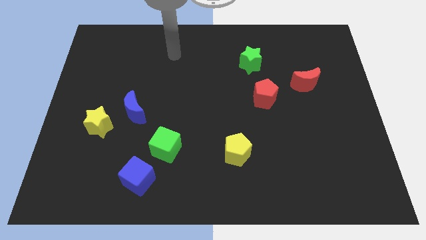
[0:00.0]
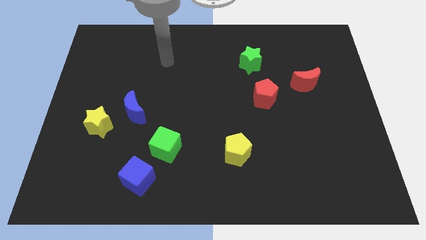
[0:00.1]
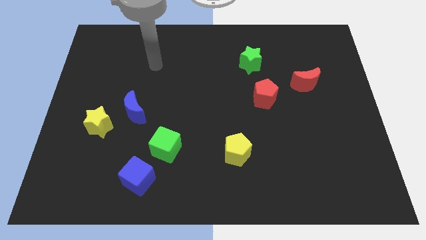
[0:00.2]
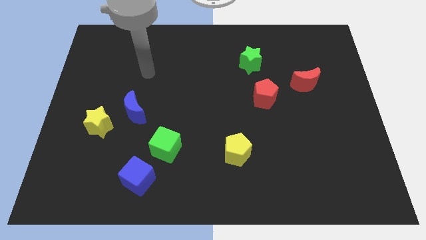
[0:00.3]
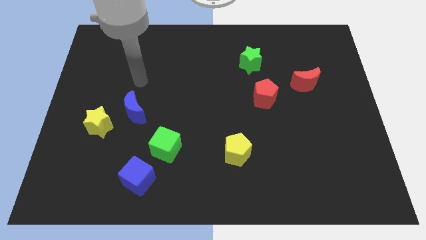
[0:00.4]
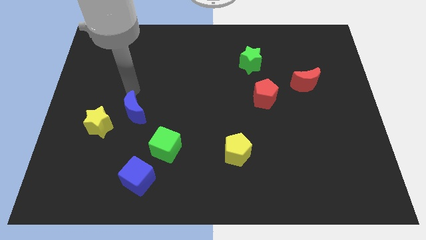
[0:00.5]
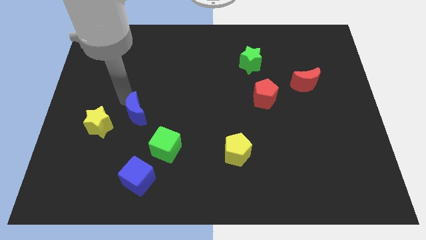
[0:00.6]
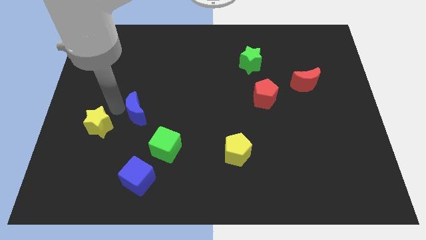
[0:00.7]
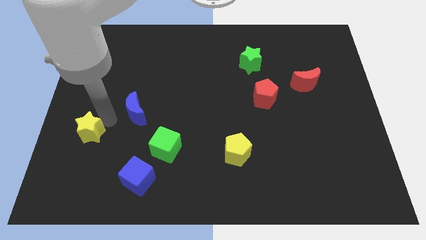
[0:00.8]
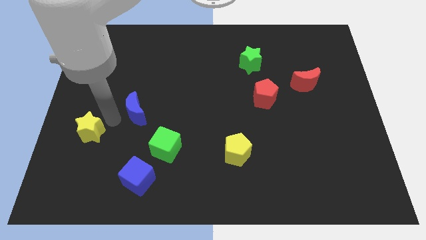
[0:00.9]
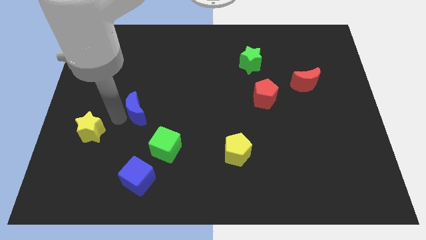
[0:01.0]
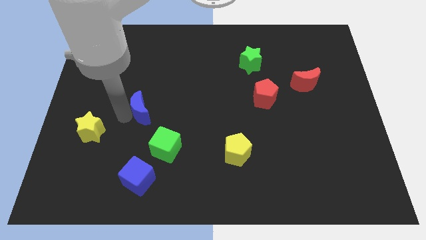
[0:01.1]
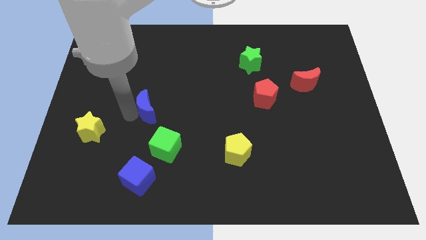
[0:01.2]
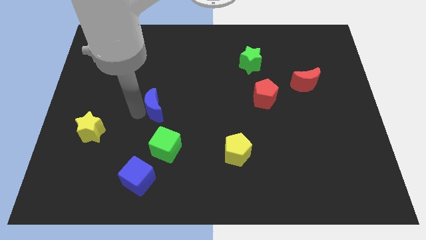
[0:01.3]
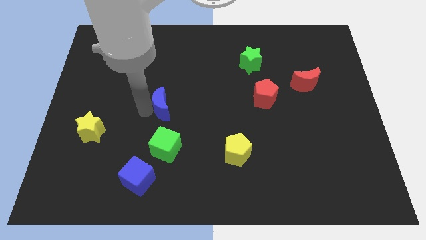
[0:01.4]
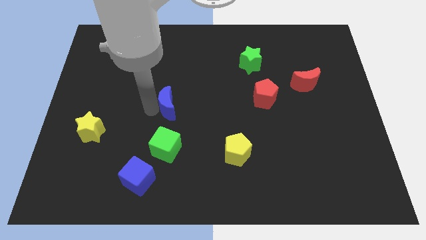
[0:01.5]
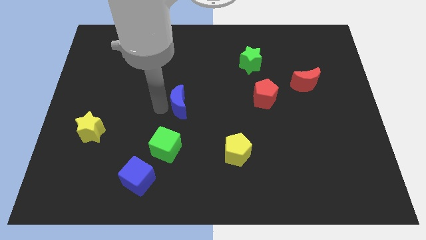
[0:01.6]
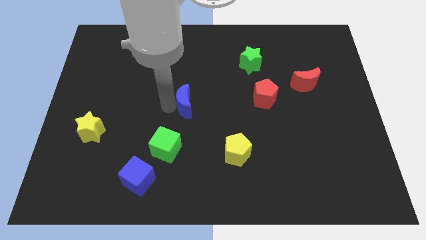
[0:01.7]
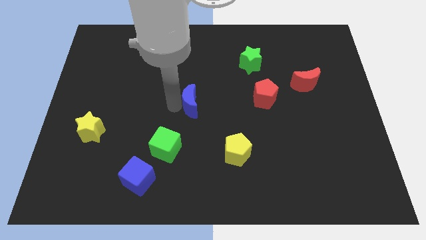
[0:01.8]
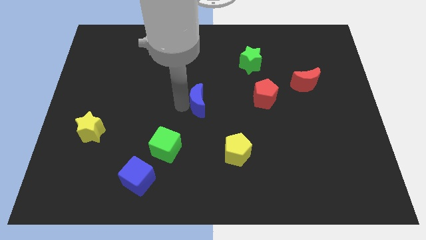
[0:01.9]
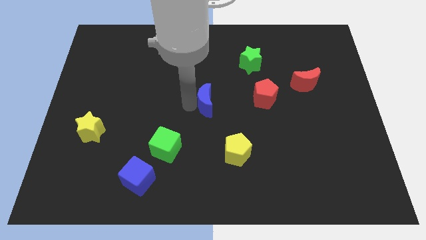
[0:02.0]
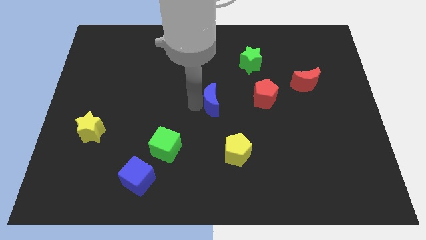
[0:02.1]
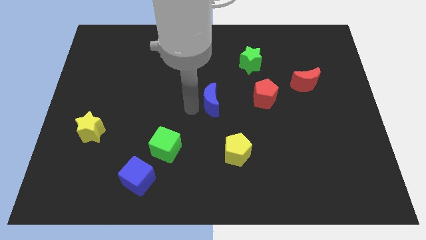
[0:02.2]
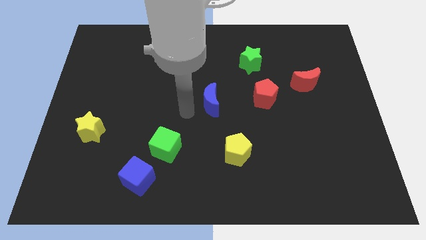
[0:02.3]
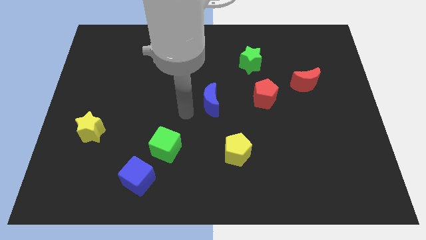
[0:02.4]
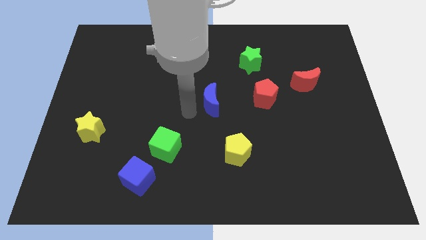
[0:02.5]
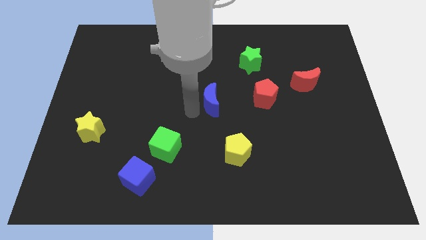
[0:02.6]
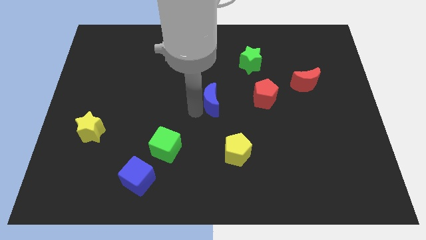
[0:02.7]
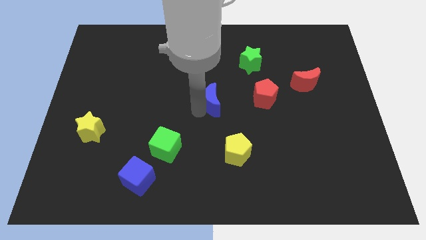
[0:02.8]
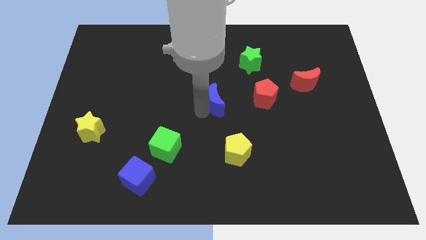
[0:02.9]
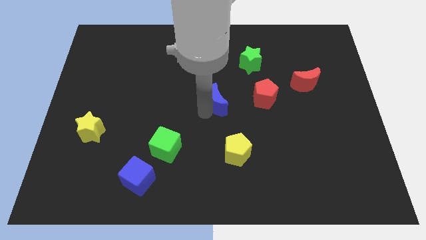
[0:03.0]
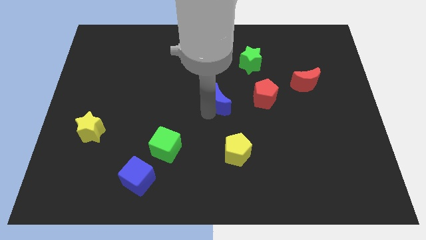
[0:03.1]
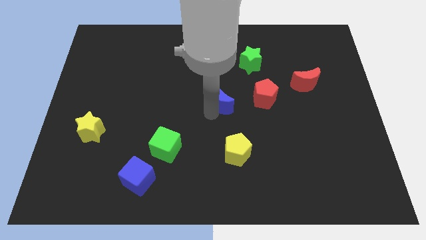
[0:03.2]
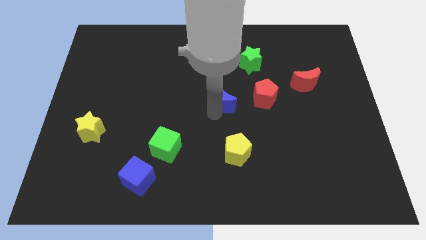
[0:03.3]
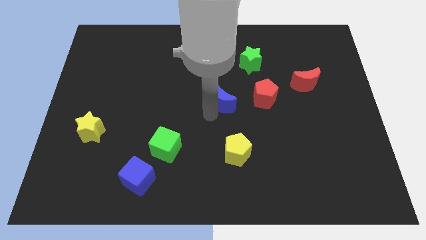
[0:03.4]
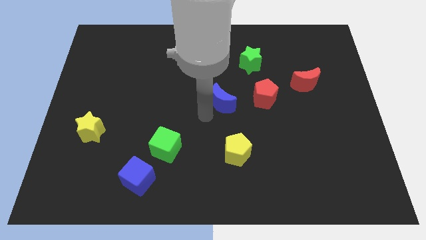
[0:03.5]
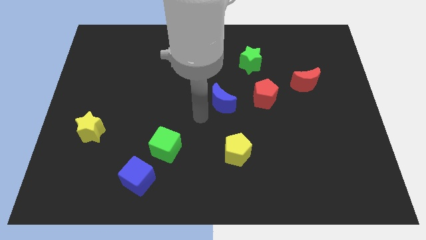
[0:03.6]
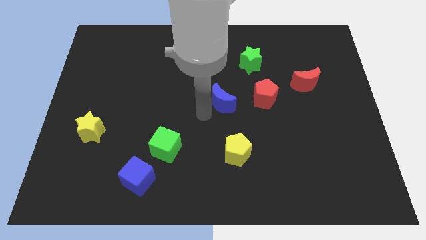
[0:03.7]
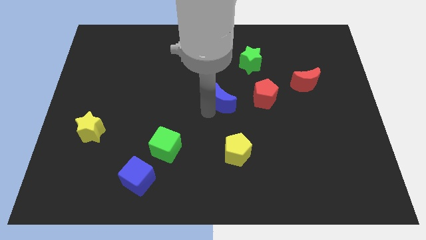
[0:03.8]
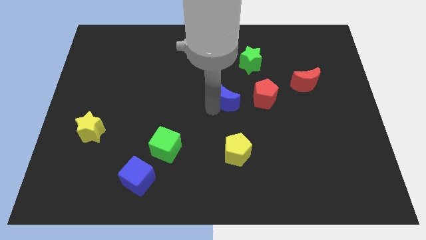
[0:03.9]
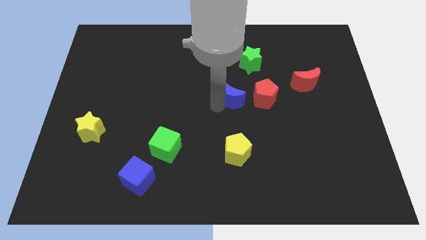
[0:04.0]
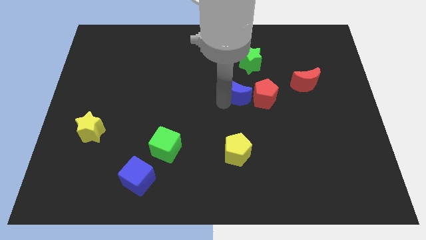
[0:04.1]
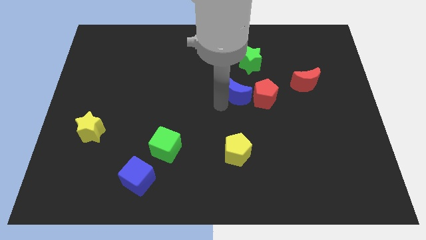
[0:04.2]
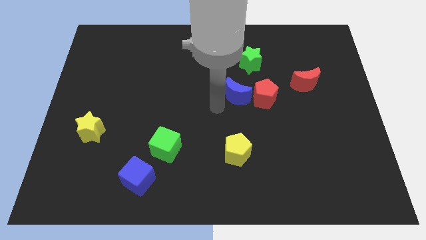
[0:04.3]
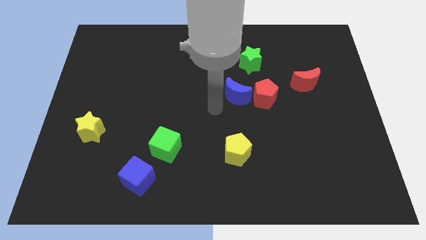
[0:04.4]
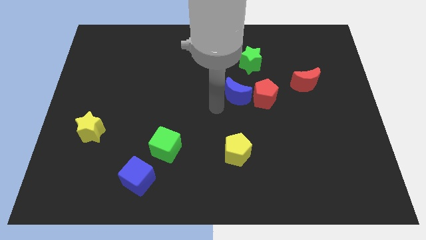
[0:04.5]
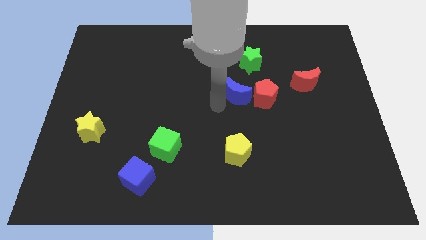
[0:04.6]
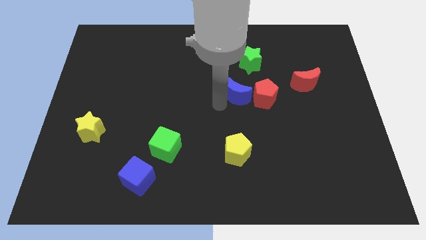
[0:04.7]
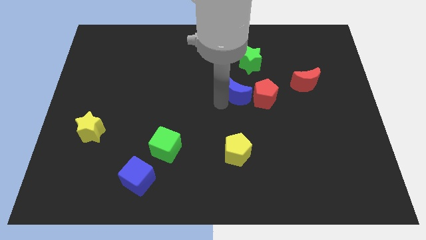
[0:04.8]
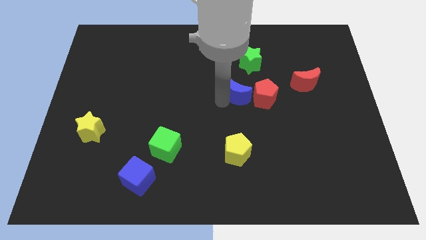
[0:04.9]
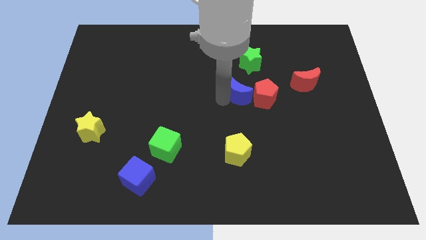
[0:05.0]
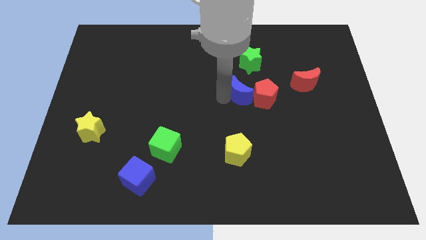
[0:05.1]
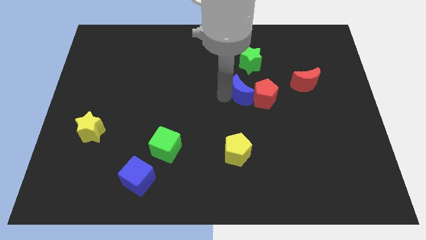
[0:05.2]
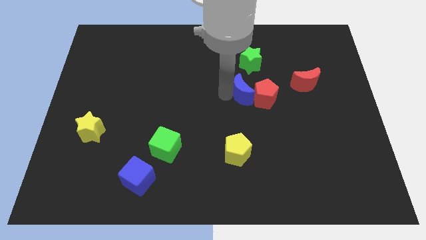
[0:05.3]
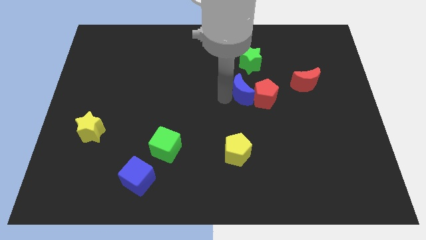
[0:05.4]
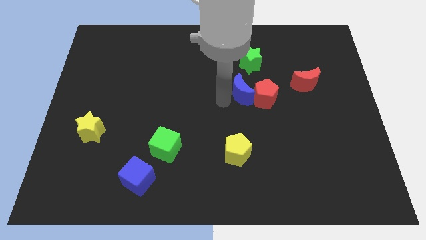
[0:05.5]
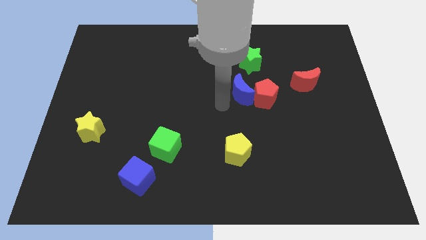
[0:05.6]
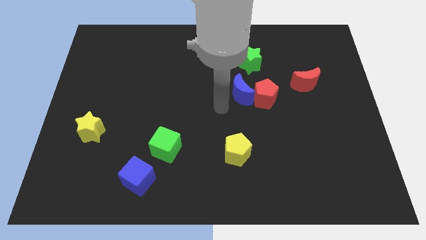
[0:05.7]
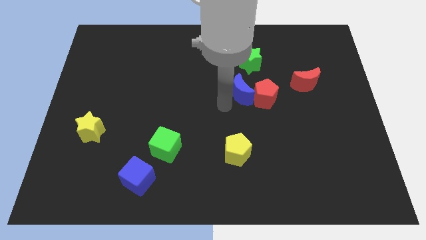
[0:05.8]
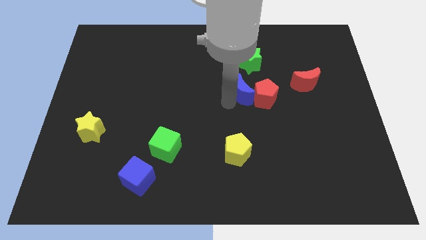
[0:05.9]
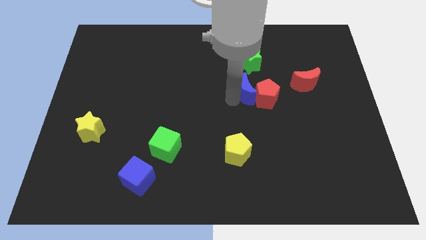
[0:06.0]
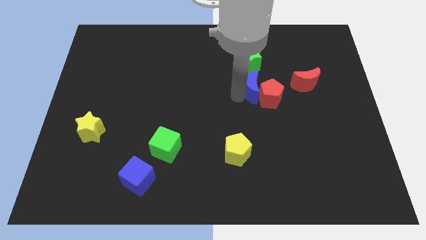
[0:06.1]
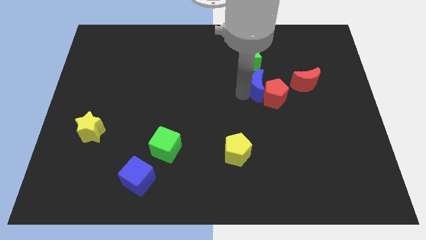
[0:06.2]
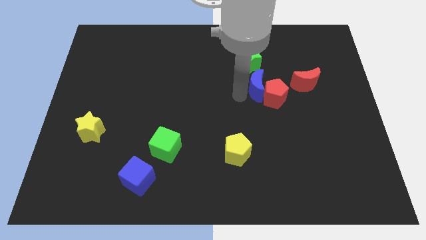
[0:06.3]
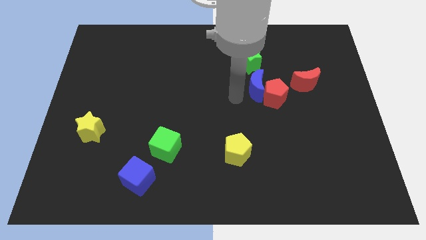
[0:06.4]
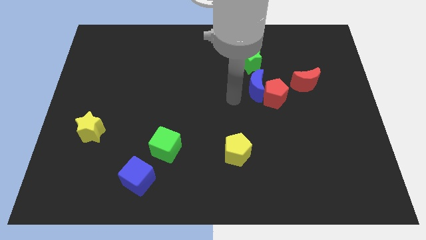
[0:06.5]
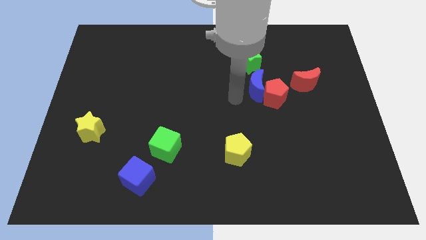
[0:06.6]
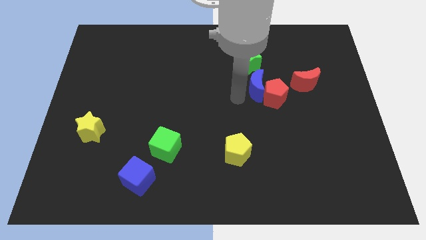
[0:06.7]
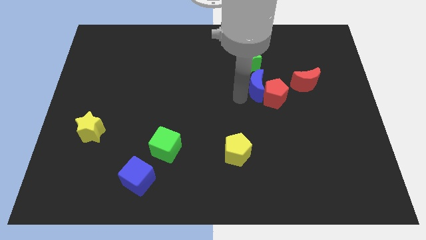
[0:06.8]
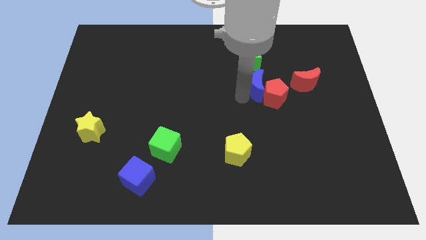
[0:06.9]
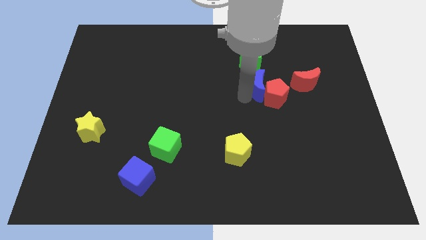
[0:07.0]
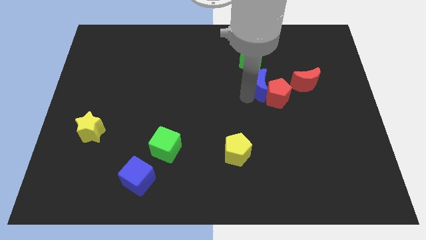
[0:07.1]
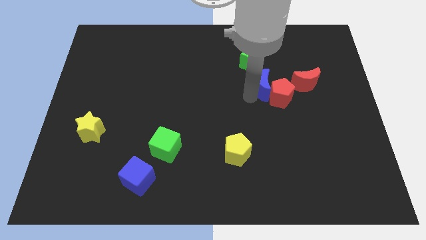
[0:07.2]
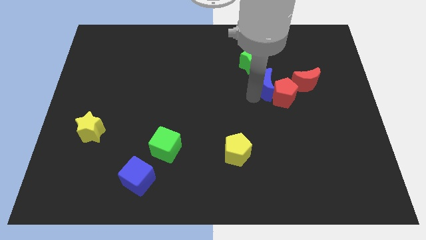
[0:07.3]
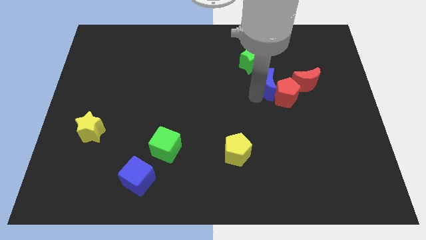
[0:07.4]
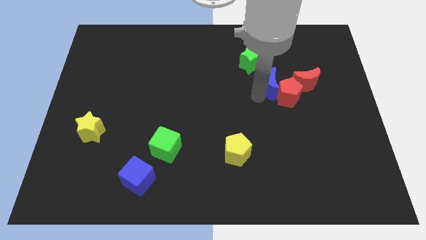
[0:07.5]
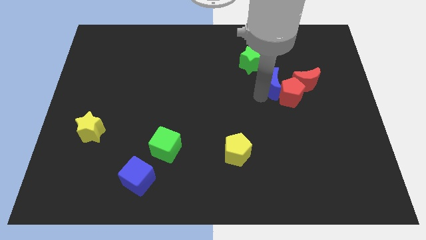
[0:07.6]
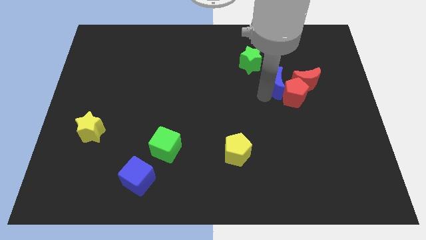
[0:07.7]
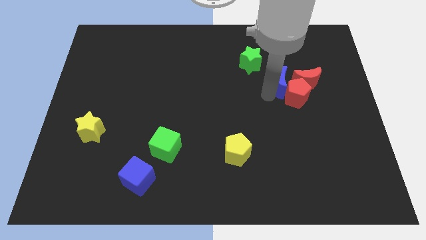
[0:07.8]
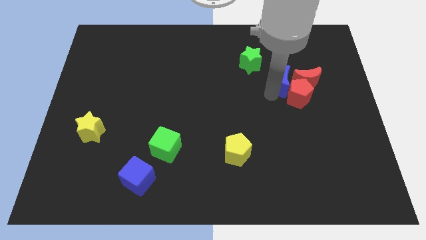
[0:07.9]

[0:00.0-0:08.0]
move the blue moon close to the red moon
